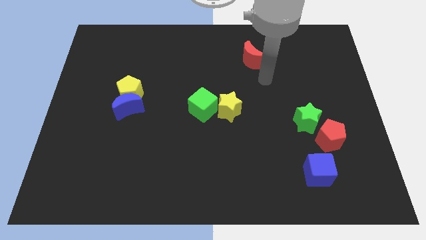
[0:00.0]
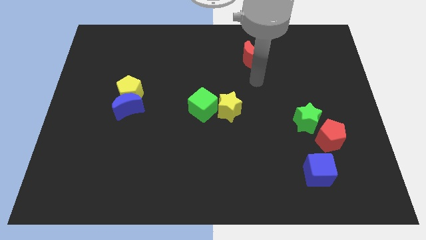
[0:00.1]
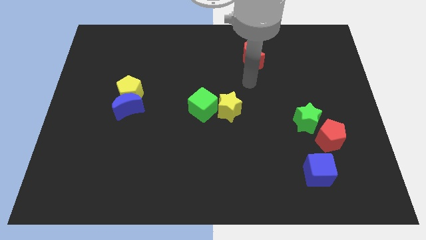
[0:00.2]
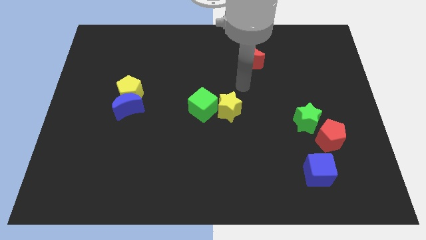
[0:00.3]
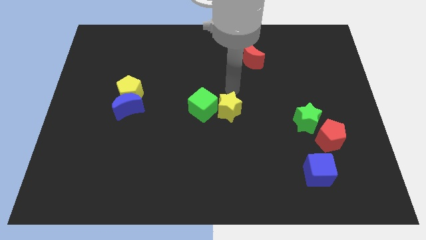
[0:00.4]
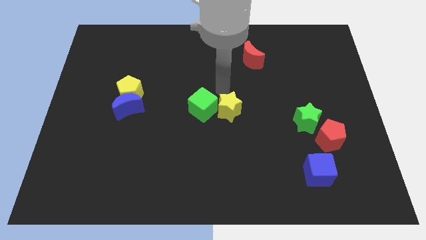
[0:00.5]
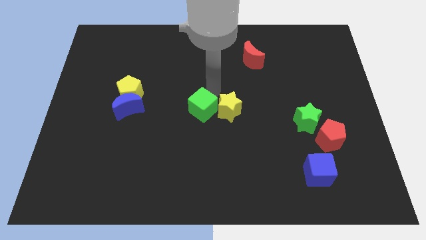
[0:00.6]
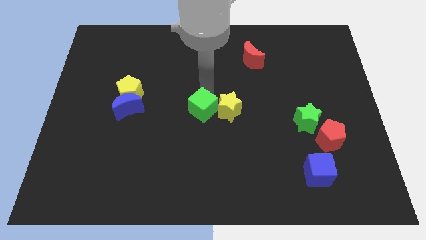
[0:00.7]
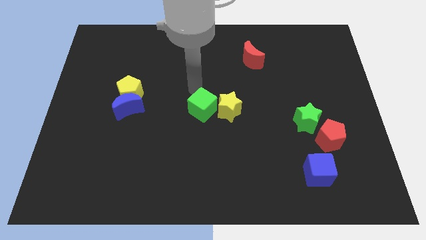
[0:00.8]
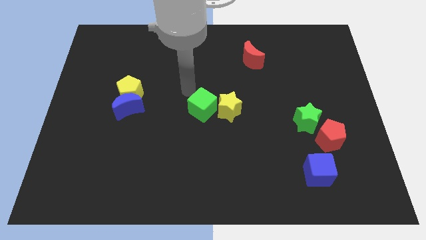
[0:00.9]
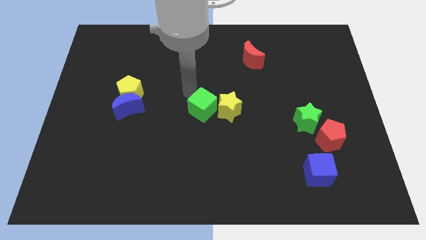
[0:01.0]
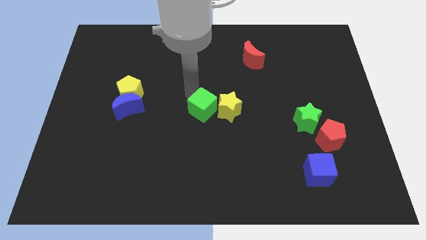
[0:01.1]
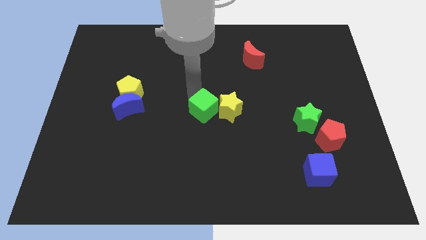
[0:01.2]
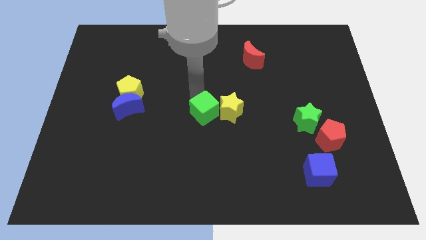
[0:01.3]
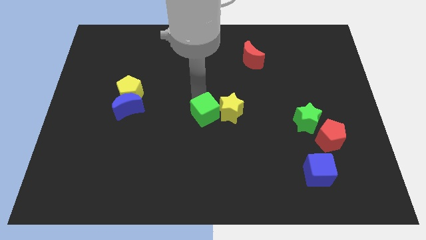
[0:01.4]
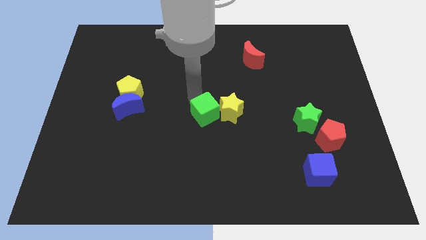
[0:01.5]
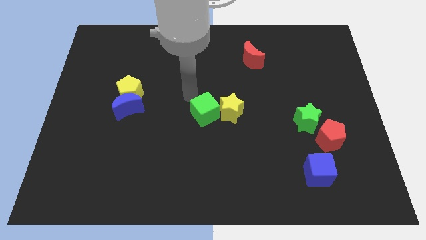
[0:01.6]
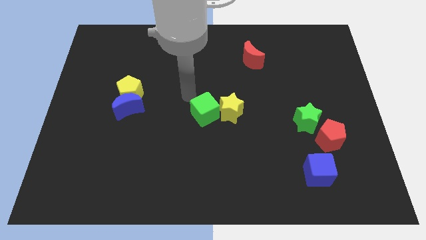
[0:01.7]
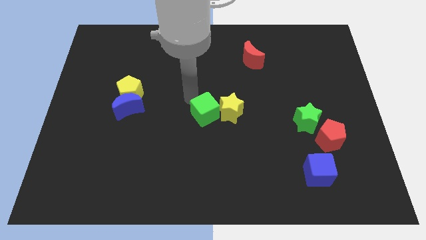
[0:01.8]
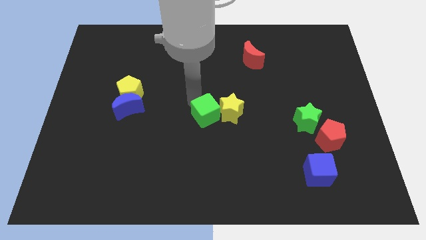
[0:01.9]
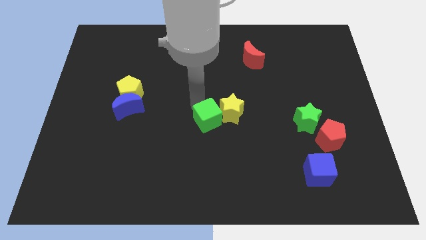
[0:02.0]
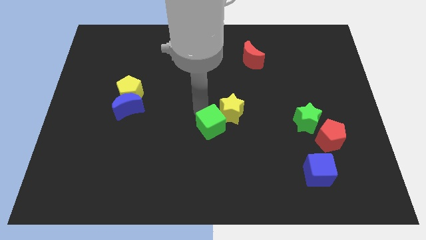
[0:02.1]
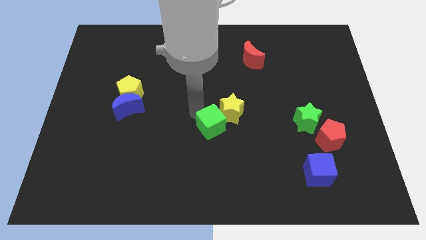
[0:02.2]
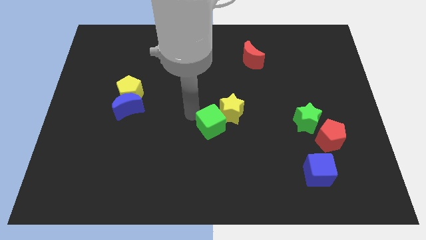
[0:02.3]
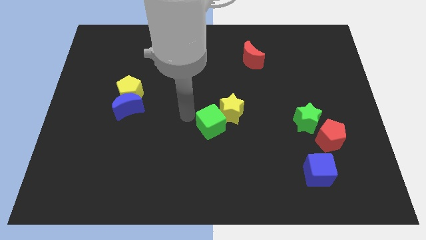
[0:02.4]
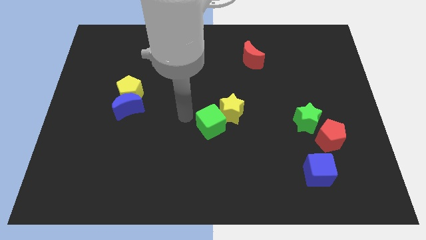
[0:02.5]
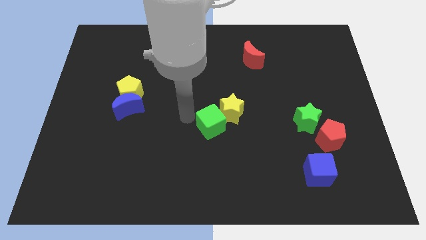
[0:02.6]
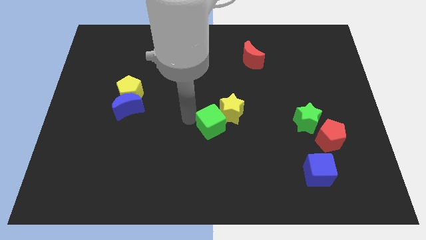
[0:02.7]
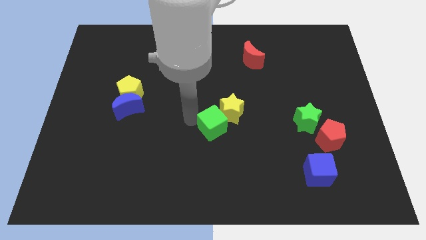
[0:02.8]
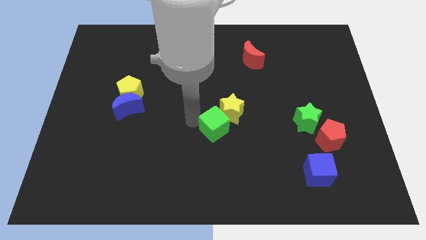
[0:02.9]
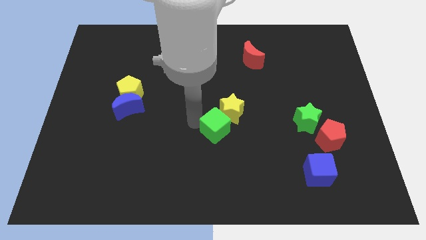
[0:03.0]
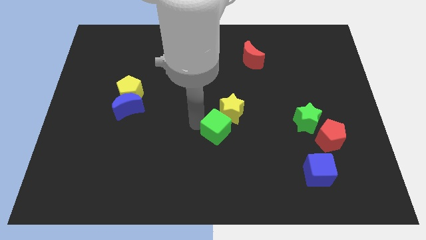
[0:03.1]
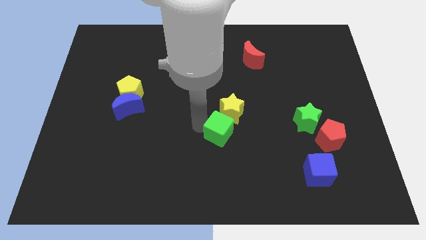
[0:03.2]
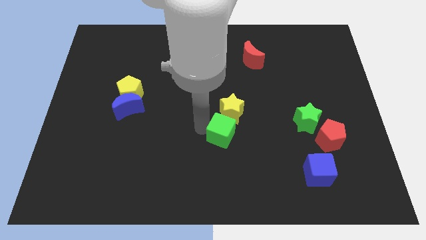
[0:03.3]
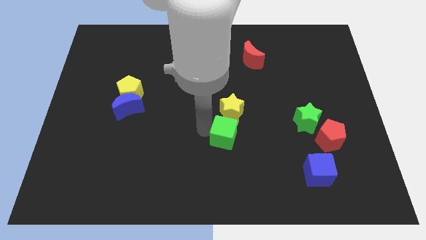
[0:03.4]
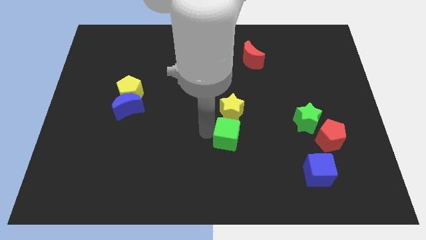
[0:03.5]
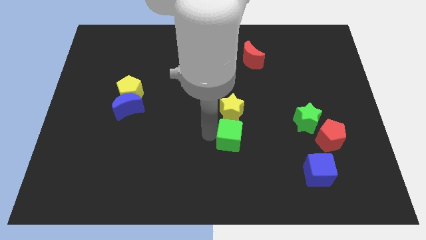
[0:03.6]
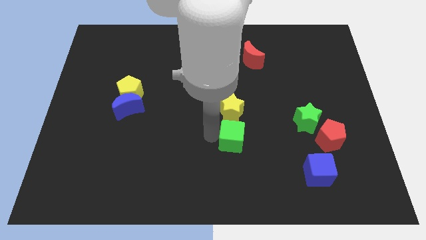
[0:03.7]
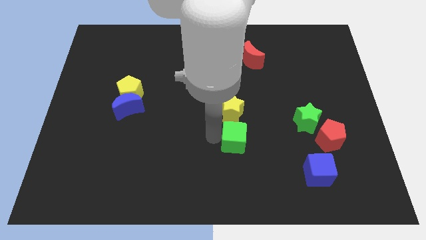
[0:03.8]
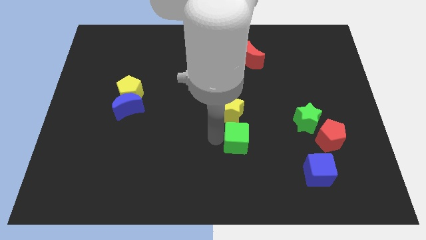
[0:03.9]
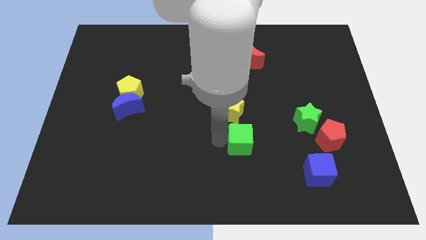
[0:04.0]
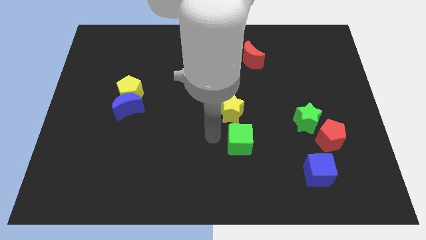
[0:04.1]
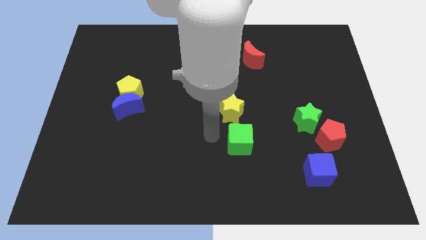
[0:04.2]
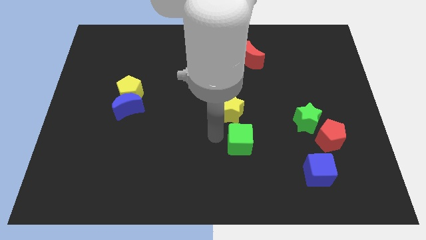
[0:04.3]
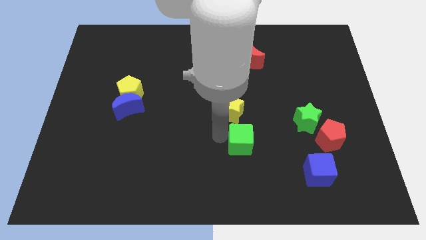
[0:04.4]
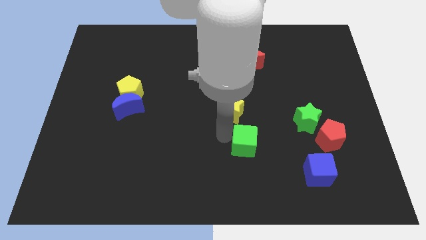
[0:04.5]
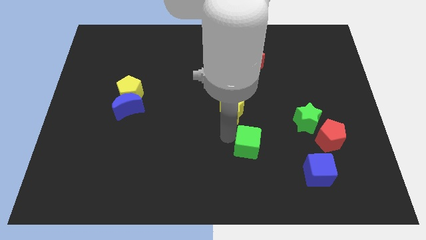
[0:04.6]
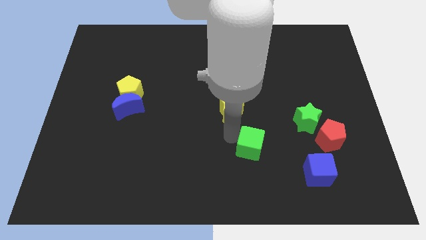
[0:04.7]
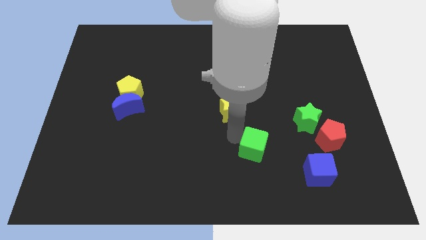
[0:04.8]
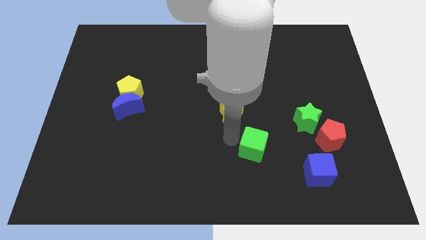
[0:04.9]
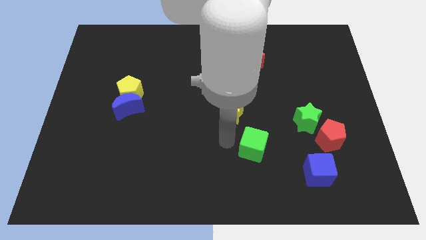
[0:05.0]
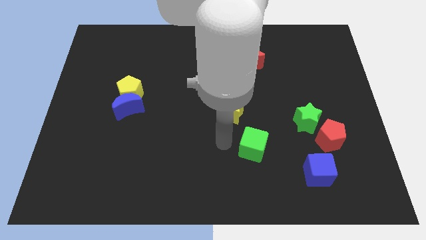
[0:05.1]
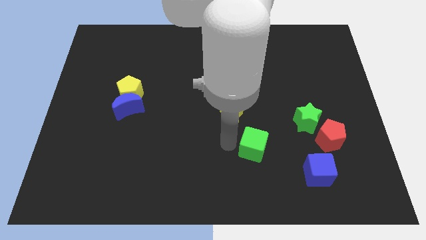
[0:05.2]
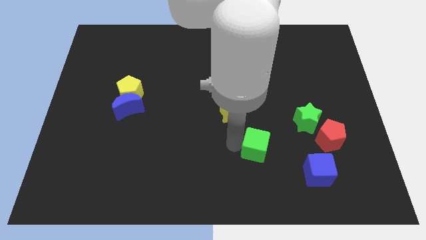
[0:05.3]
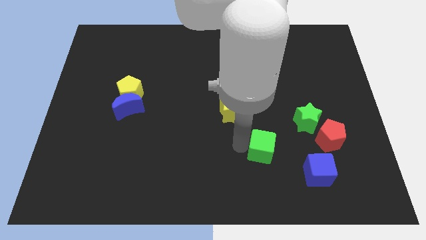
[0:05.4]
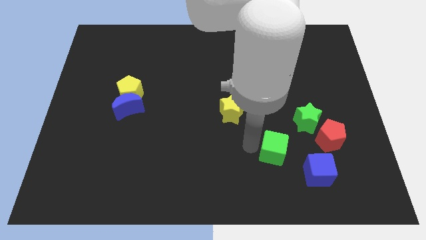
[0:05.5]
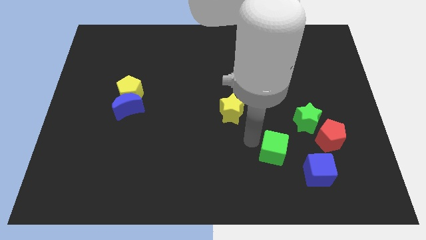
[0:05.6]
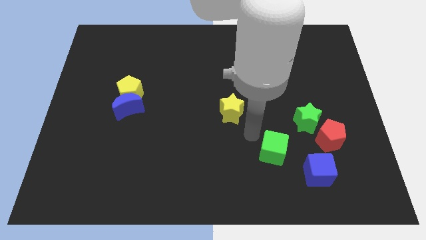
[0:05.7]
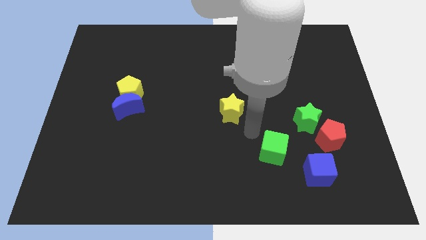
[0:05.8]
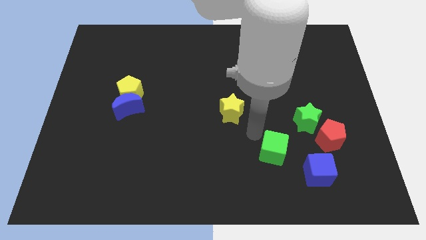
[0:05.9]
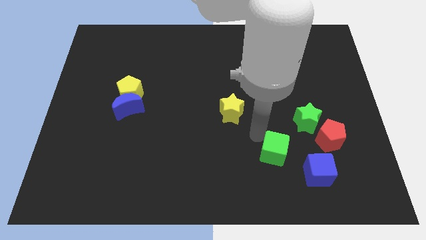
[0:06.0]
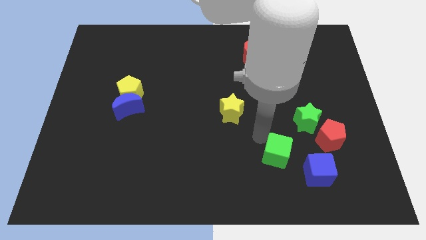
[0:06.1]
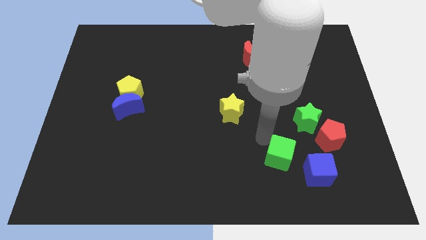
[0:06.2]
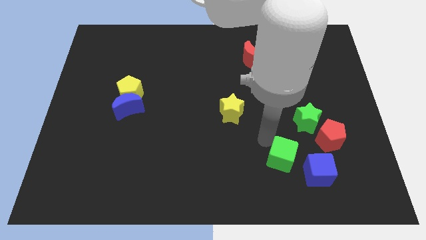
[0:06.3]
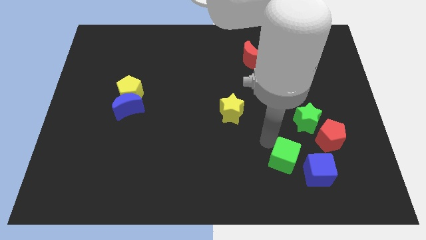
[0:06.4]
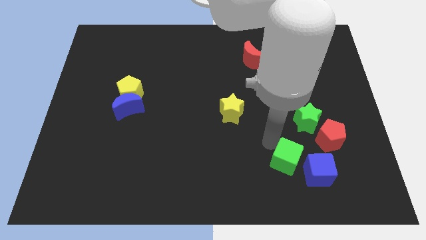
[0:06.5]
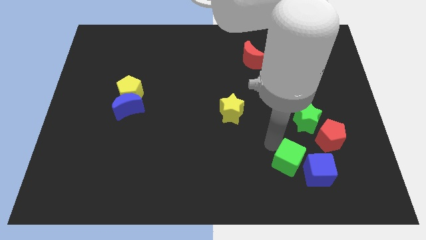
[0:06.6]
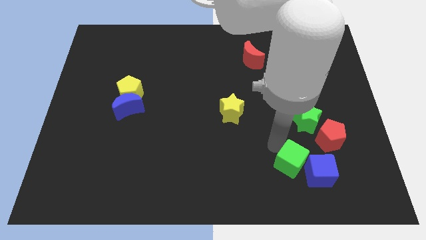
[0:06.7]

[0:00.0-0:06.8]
put the green cube next to the blue cube

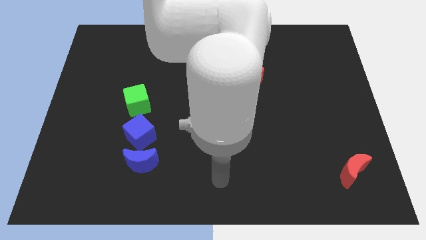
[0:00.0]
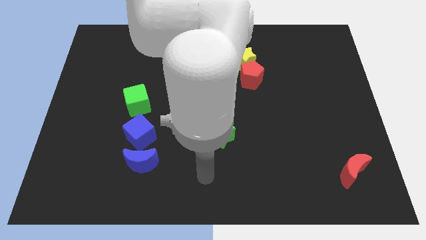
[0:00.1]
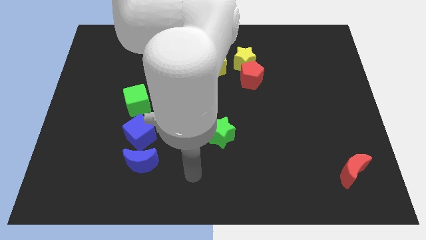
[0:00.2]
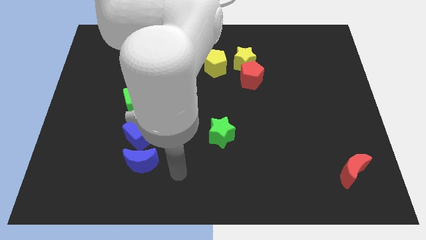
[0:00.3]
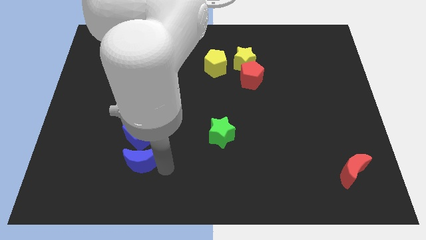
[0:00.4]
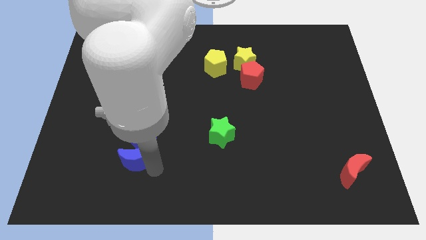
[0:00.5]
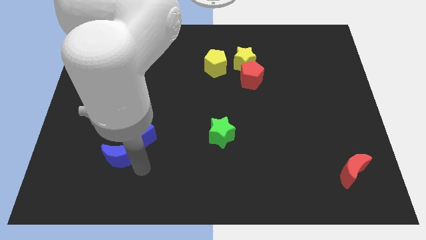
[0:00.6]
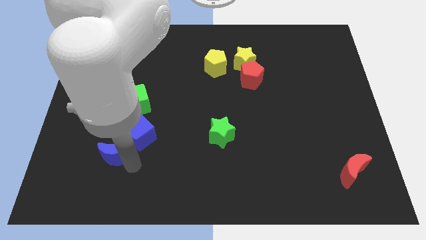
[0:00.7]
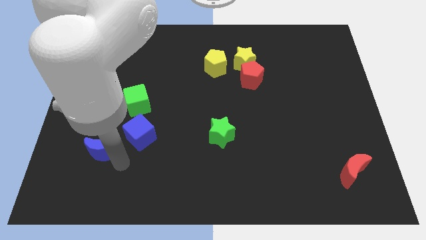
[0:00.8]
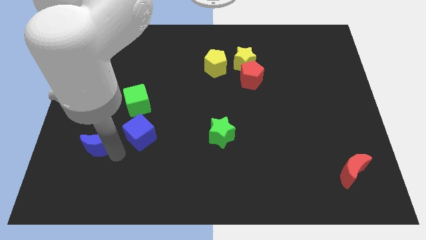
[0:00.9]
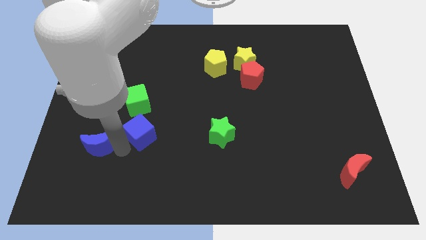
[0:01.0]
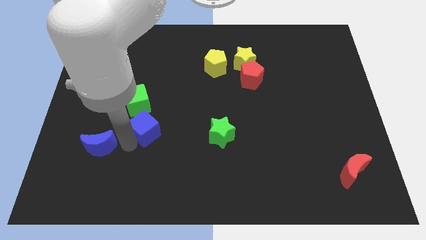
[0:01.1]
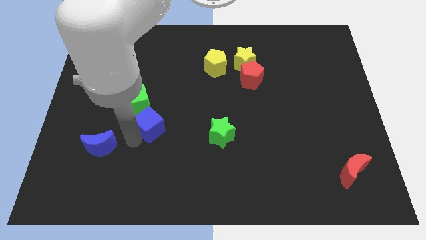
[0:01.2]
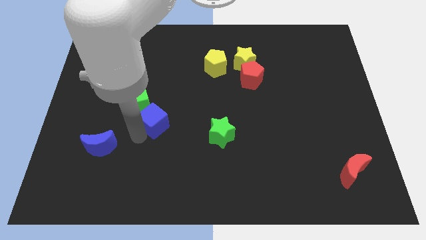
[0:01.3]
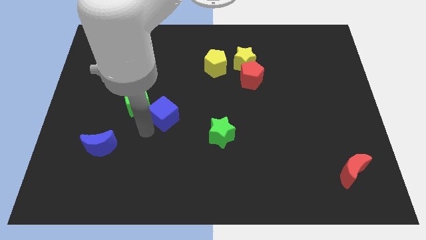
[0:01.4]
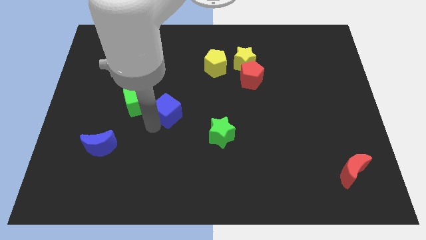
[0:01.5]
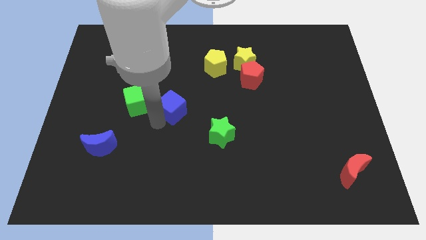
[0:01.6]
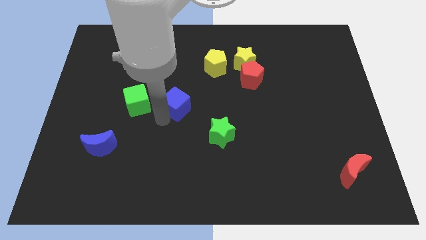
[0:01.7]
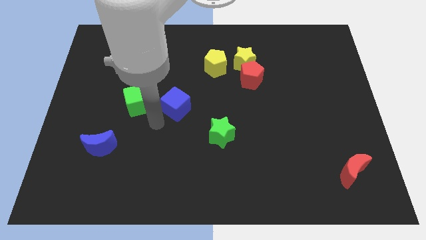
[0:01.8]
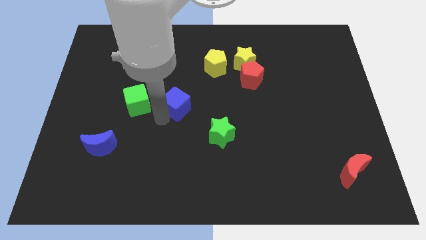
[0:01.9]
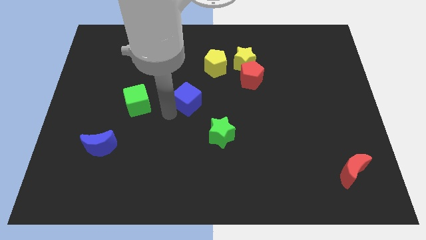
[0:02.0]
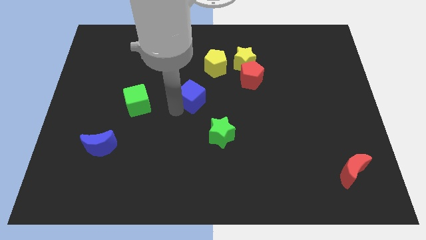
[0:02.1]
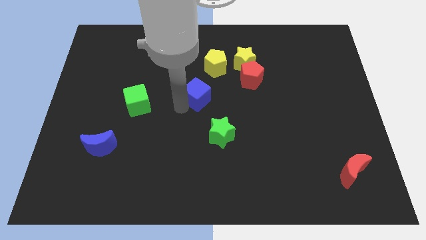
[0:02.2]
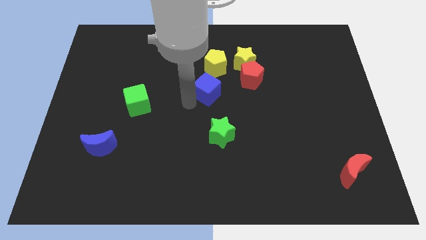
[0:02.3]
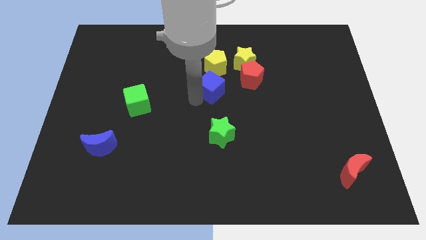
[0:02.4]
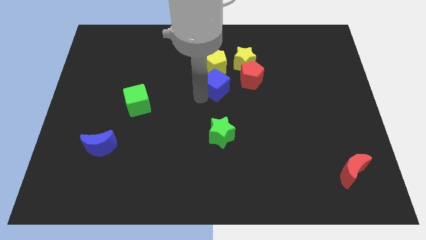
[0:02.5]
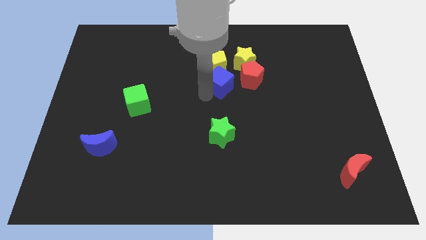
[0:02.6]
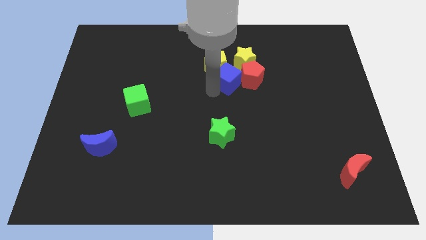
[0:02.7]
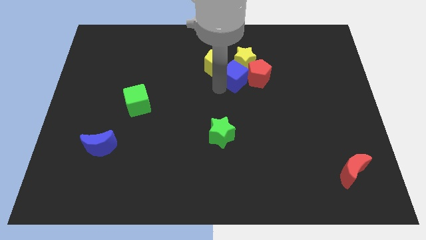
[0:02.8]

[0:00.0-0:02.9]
move the blue cube next to the yellow star
